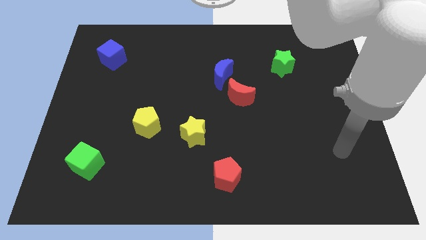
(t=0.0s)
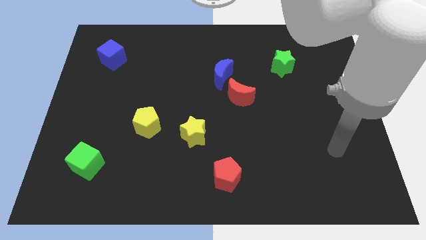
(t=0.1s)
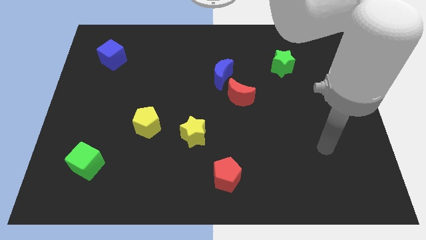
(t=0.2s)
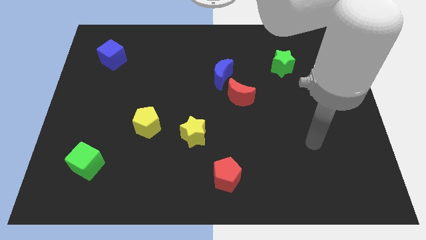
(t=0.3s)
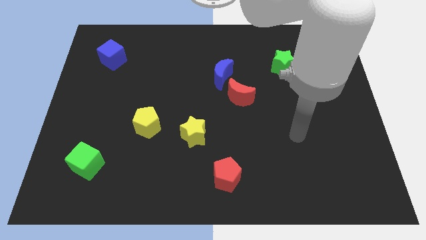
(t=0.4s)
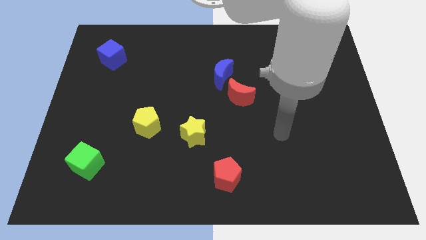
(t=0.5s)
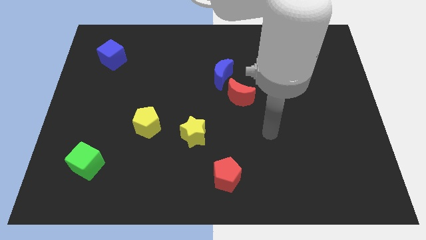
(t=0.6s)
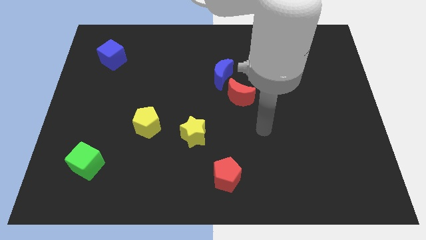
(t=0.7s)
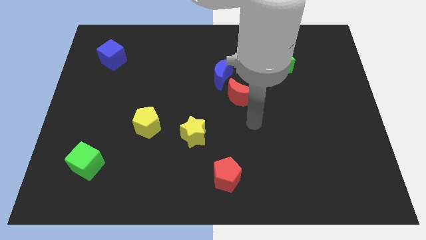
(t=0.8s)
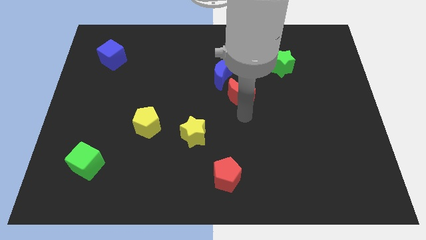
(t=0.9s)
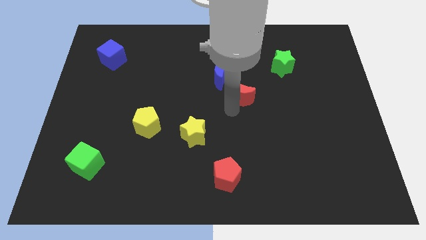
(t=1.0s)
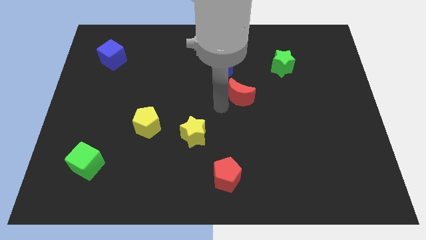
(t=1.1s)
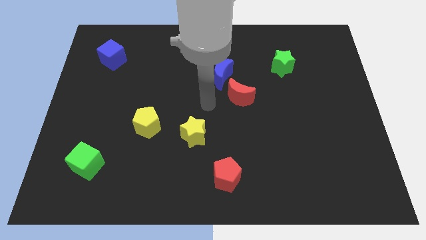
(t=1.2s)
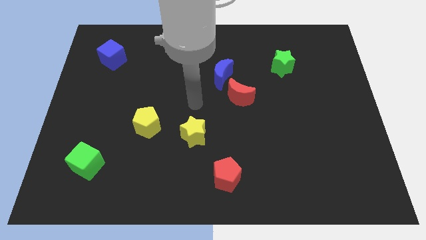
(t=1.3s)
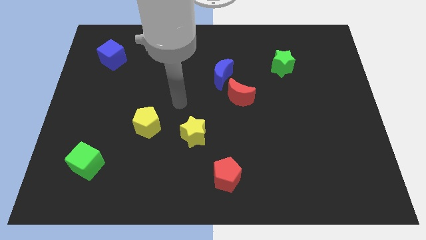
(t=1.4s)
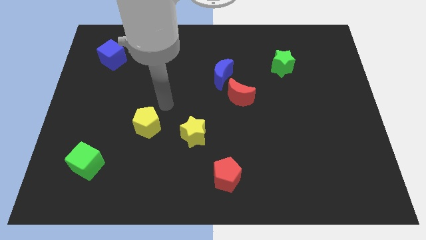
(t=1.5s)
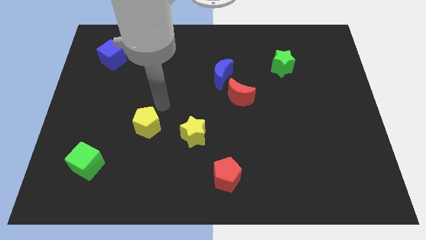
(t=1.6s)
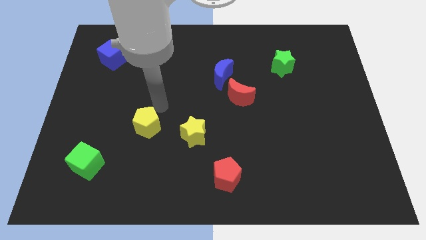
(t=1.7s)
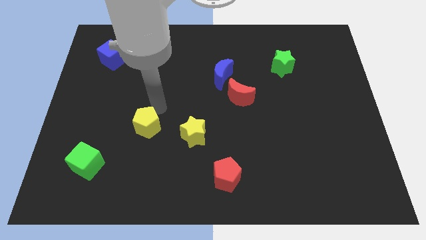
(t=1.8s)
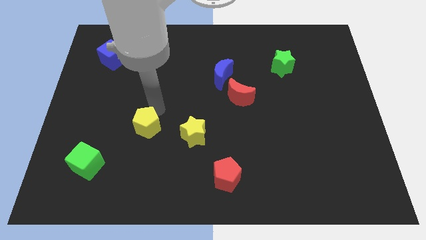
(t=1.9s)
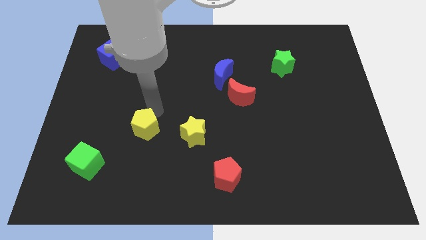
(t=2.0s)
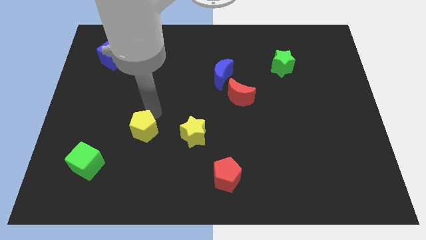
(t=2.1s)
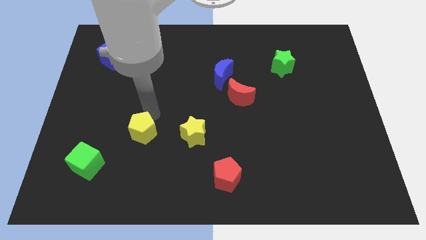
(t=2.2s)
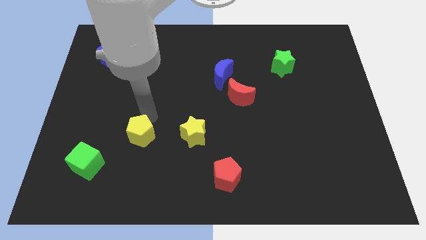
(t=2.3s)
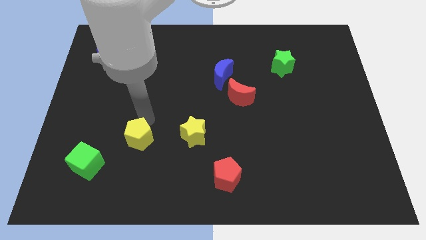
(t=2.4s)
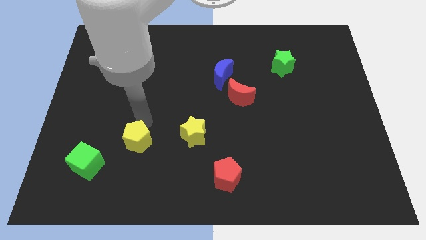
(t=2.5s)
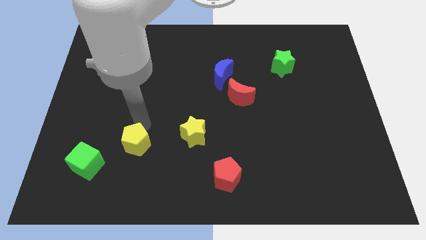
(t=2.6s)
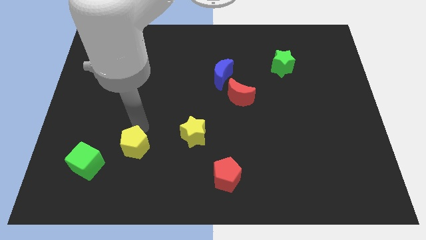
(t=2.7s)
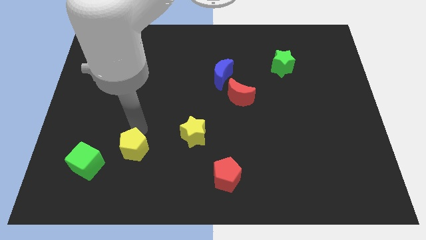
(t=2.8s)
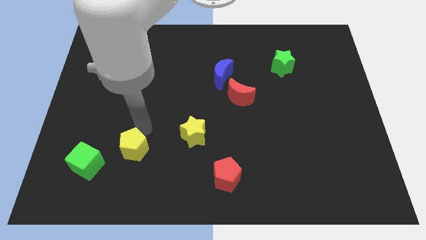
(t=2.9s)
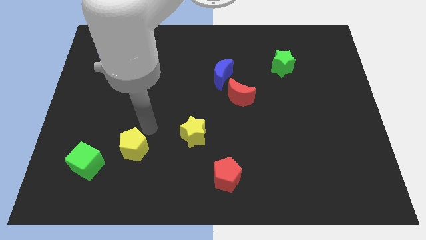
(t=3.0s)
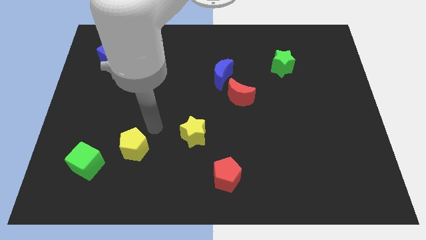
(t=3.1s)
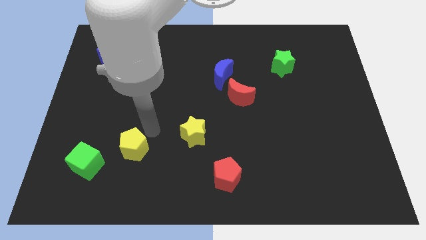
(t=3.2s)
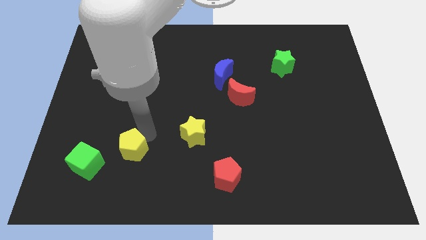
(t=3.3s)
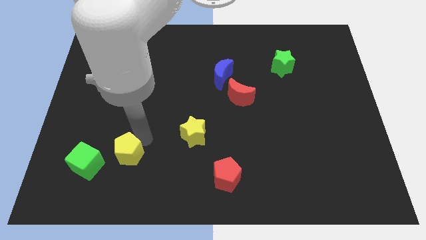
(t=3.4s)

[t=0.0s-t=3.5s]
push the yellow pentagon diagonally down and left a little

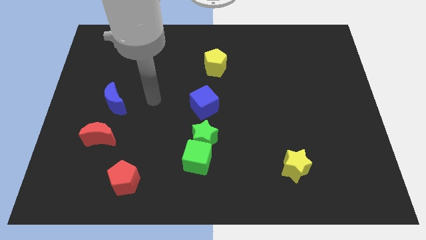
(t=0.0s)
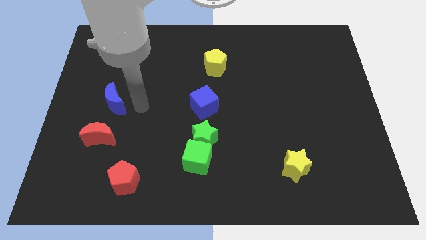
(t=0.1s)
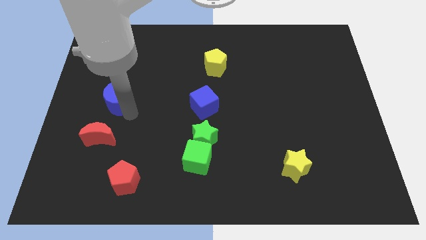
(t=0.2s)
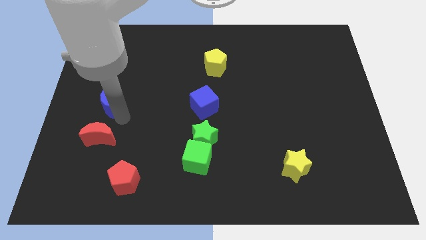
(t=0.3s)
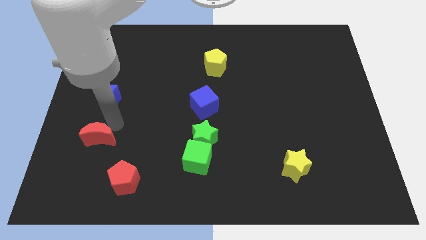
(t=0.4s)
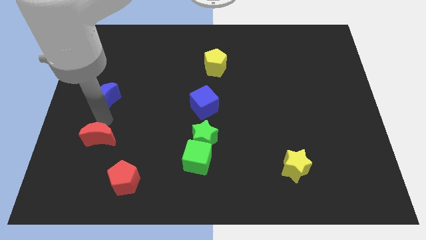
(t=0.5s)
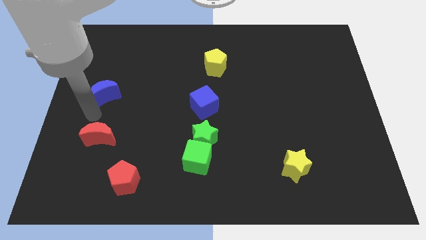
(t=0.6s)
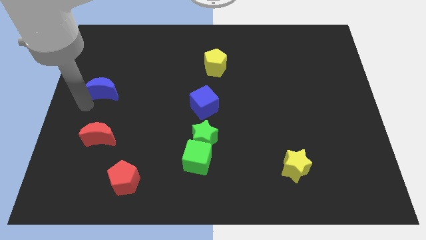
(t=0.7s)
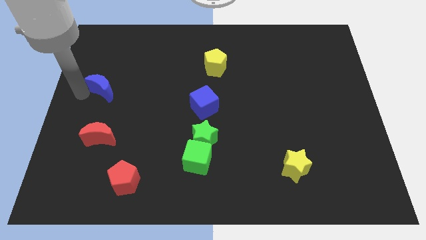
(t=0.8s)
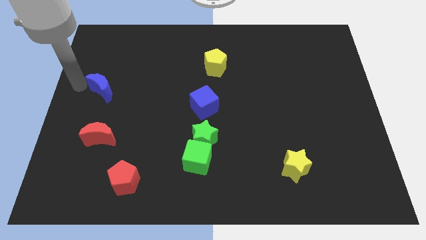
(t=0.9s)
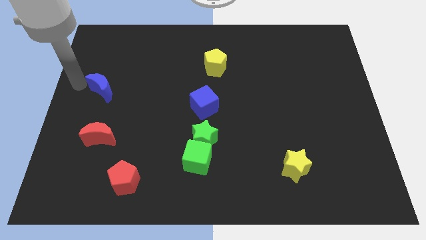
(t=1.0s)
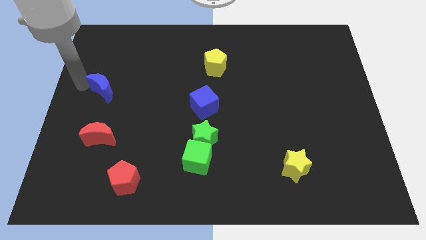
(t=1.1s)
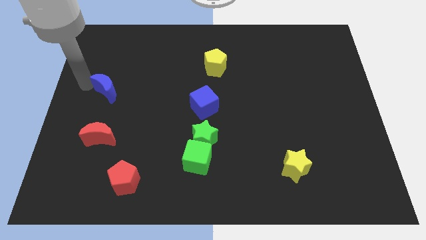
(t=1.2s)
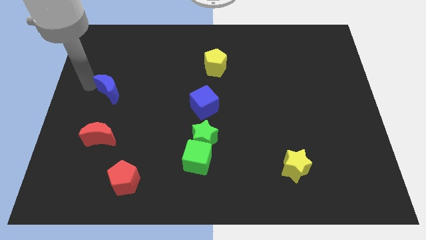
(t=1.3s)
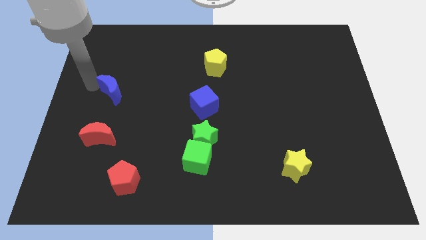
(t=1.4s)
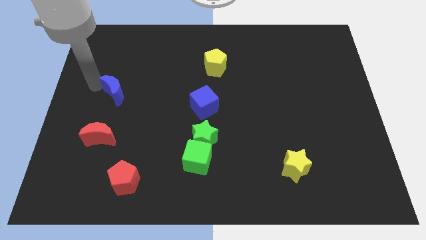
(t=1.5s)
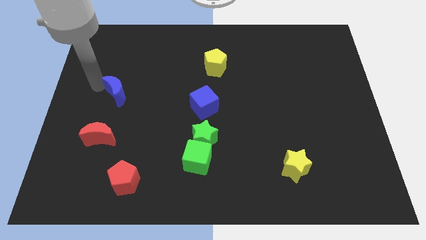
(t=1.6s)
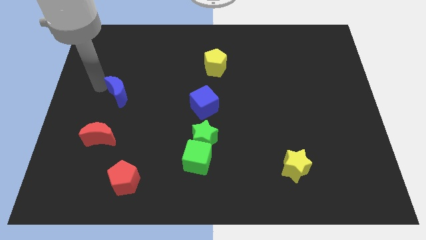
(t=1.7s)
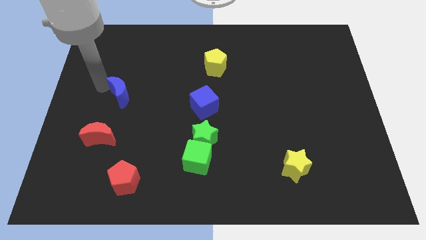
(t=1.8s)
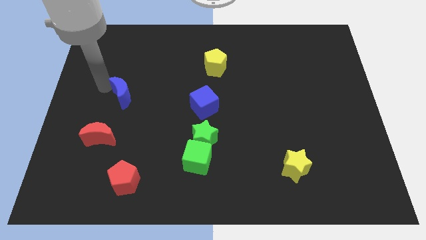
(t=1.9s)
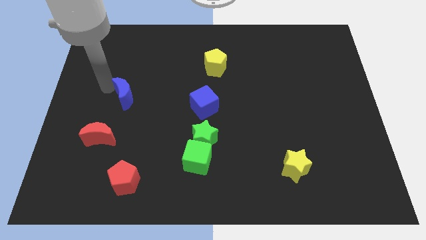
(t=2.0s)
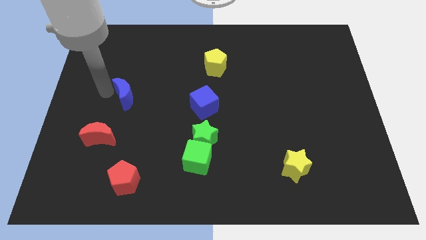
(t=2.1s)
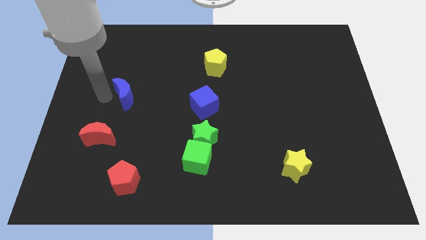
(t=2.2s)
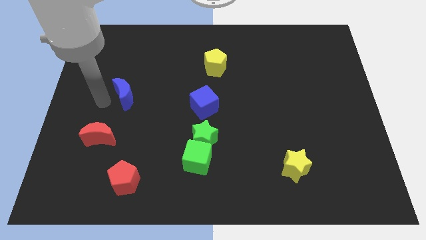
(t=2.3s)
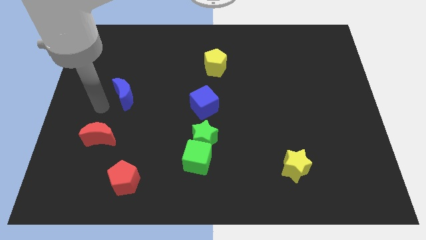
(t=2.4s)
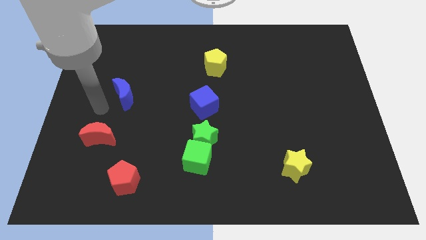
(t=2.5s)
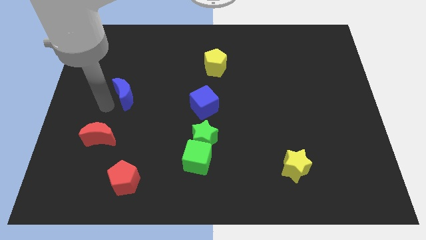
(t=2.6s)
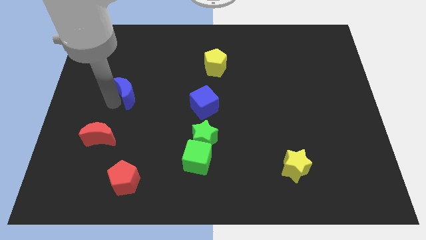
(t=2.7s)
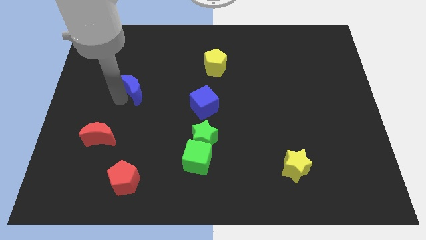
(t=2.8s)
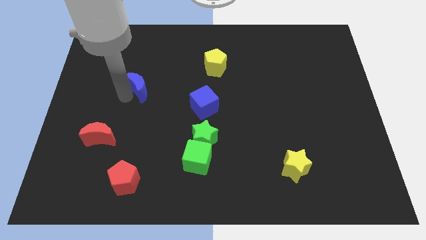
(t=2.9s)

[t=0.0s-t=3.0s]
slightly move the blue moon upwards and then right

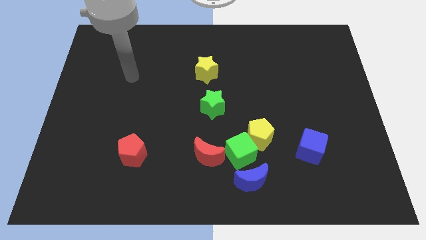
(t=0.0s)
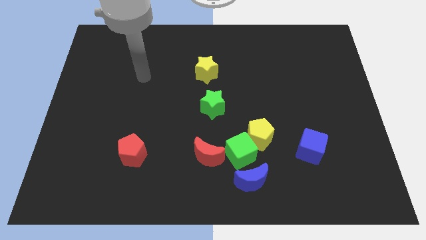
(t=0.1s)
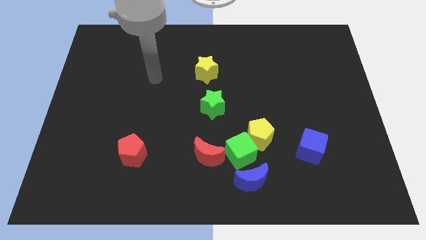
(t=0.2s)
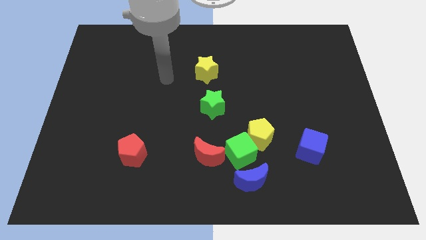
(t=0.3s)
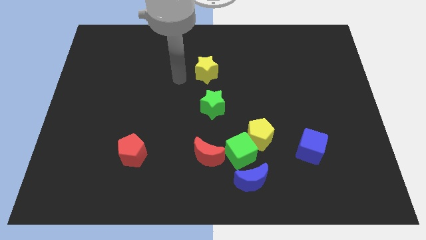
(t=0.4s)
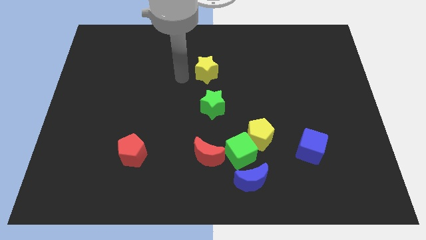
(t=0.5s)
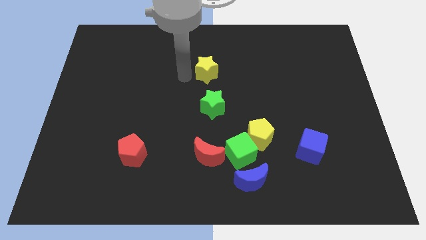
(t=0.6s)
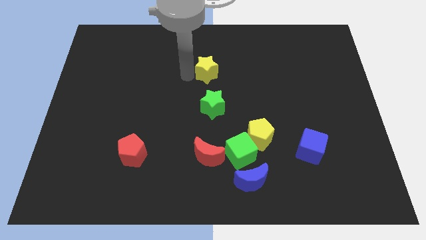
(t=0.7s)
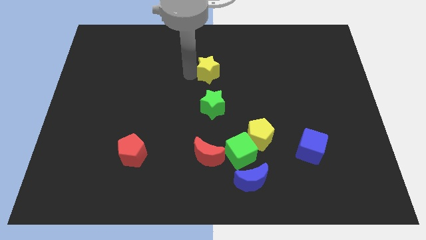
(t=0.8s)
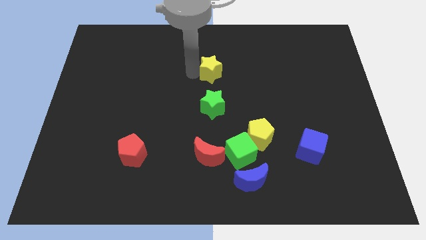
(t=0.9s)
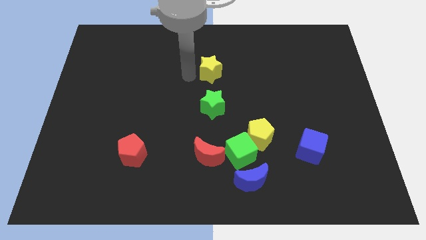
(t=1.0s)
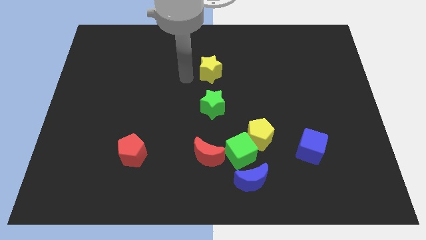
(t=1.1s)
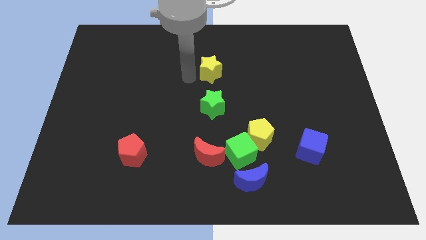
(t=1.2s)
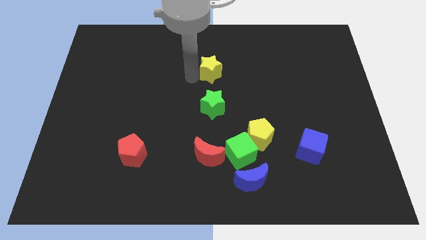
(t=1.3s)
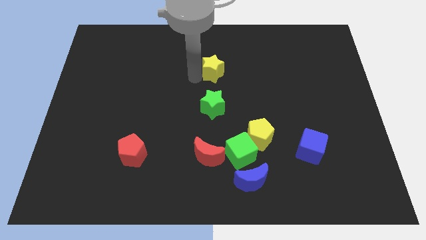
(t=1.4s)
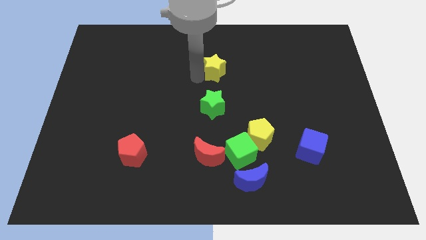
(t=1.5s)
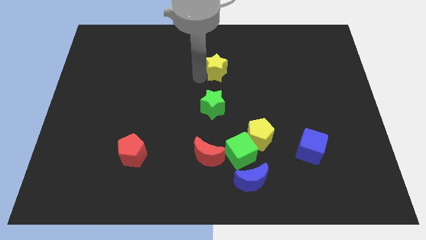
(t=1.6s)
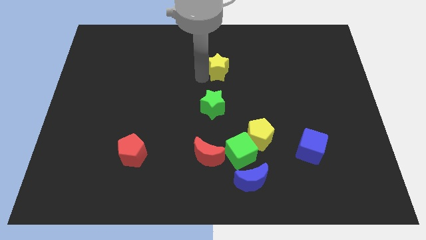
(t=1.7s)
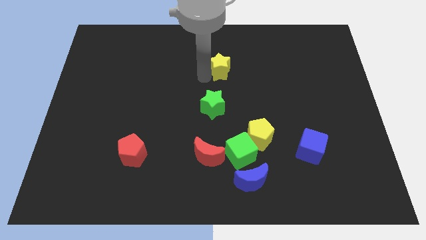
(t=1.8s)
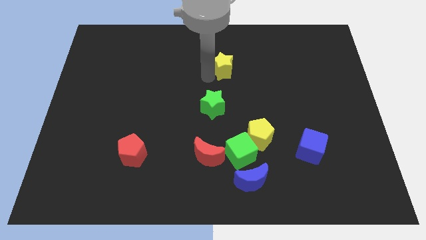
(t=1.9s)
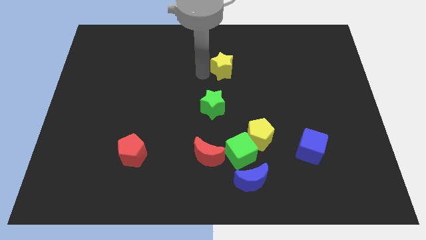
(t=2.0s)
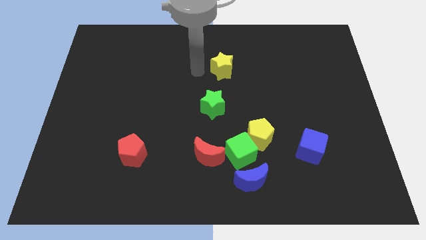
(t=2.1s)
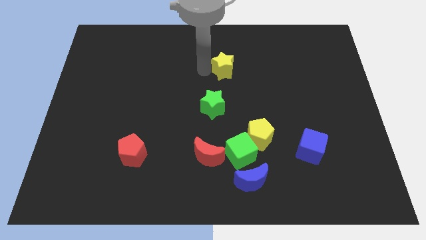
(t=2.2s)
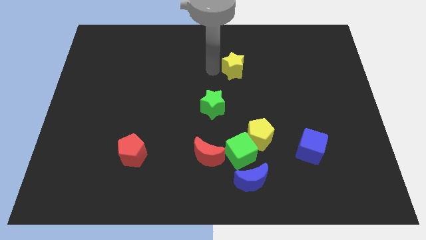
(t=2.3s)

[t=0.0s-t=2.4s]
slightly slide the yellow star to the right
